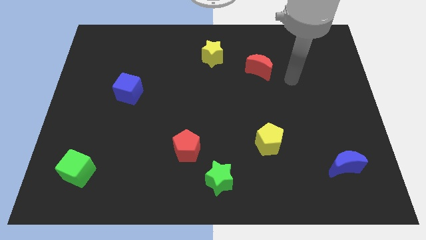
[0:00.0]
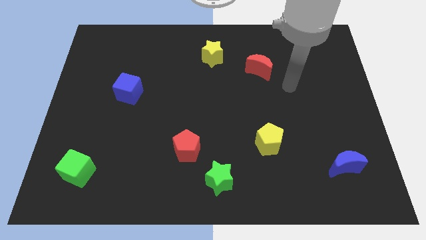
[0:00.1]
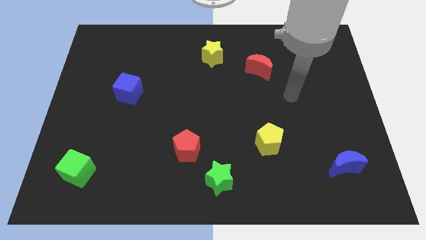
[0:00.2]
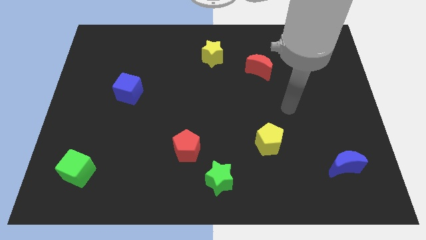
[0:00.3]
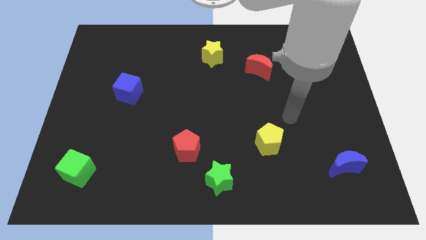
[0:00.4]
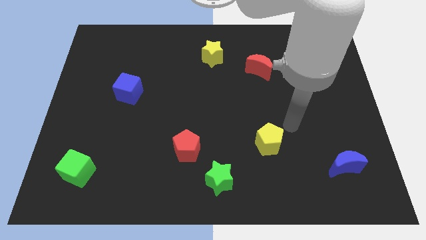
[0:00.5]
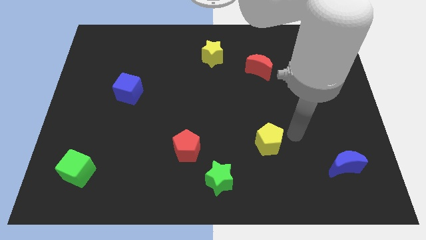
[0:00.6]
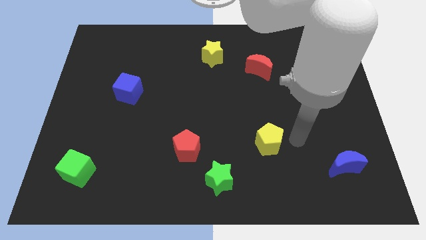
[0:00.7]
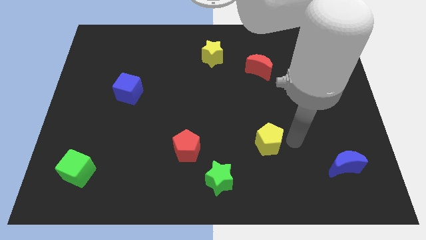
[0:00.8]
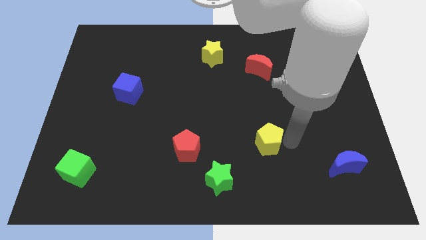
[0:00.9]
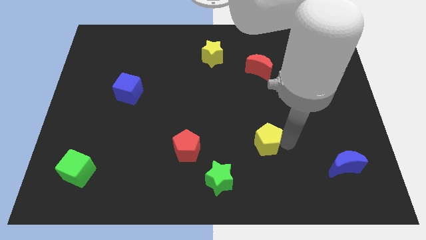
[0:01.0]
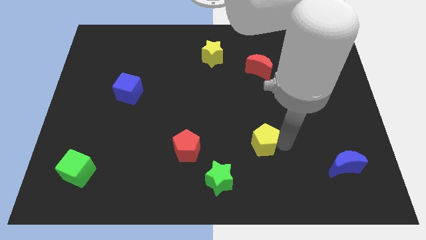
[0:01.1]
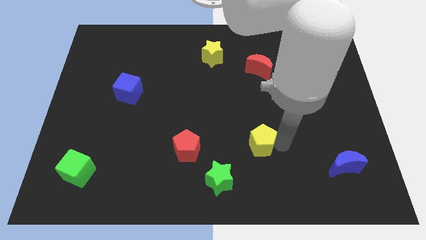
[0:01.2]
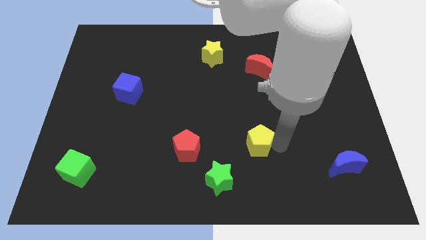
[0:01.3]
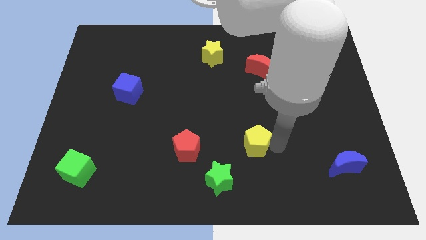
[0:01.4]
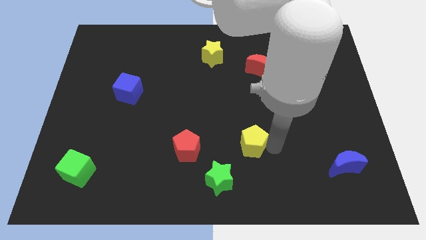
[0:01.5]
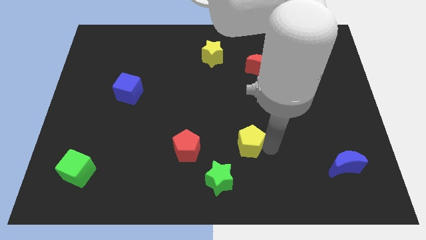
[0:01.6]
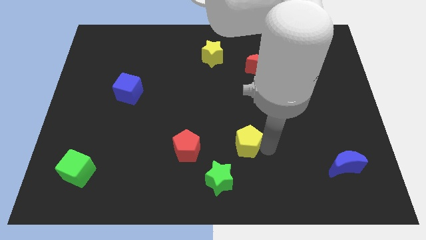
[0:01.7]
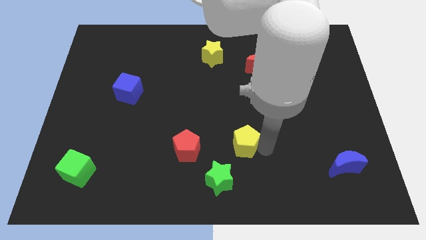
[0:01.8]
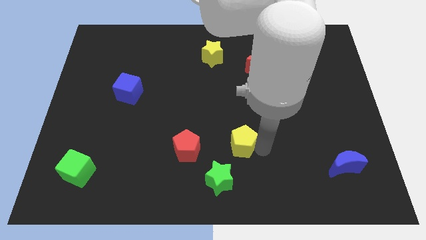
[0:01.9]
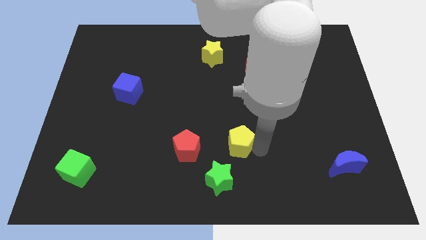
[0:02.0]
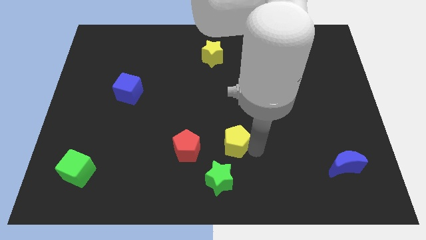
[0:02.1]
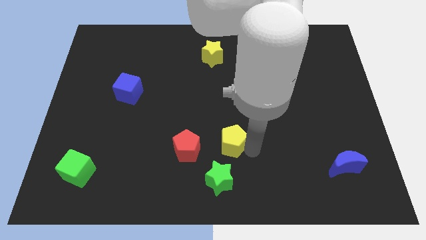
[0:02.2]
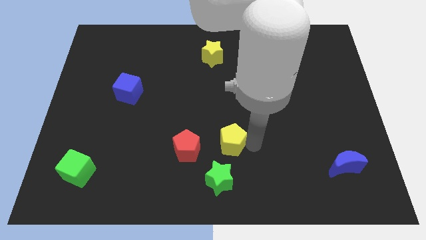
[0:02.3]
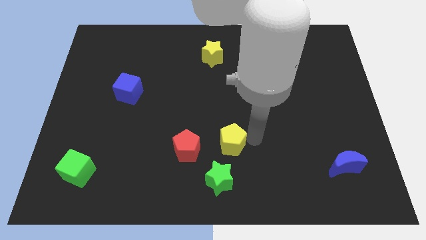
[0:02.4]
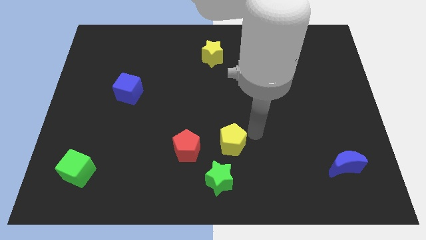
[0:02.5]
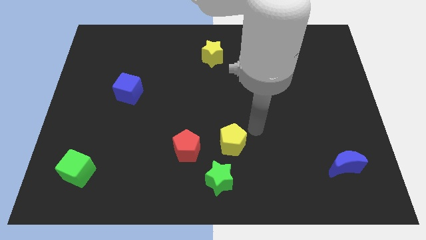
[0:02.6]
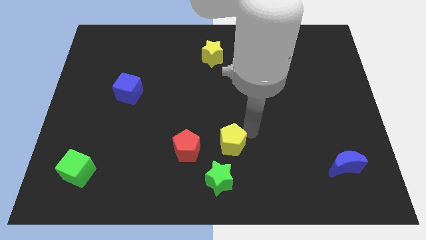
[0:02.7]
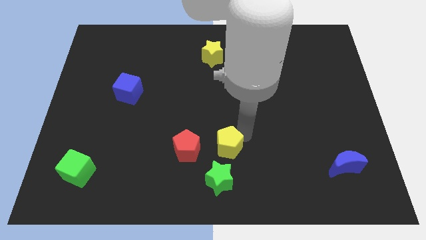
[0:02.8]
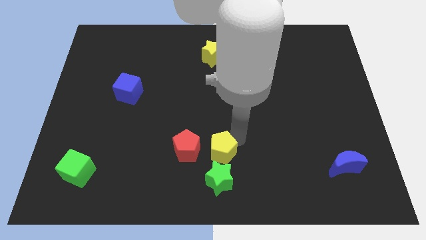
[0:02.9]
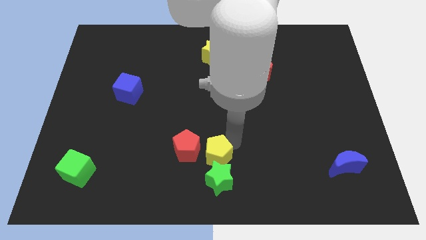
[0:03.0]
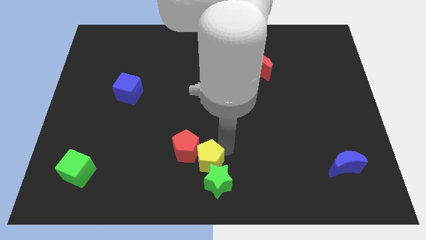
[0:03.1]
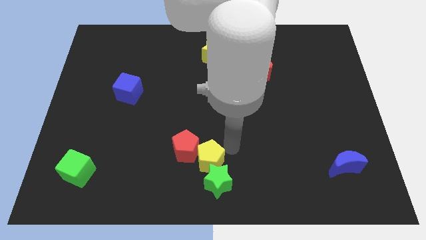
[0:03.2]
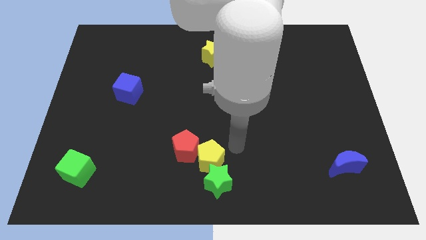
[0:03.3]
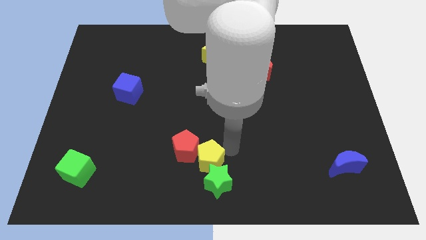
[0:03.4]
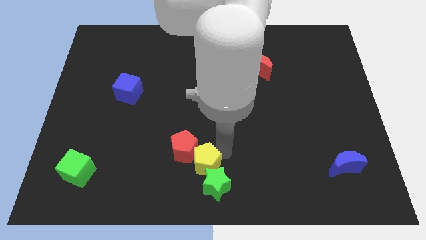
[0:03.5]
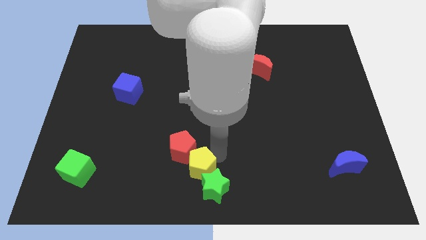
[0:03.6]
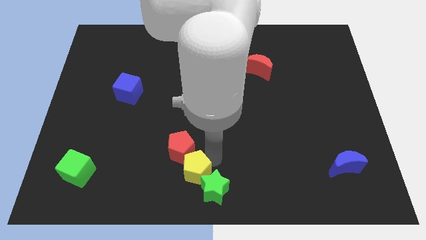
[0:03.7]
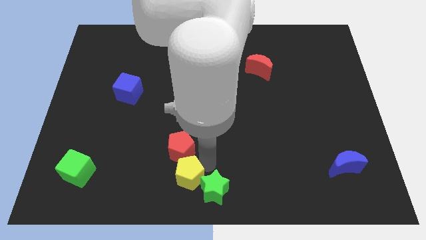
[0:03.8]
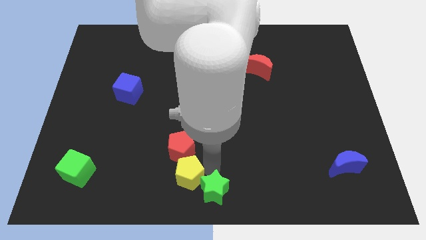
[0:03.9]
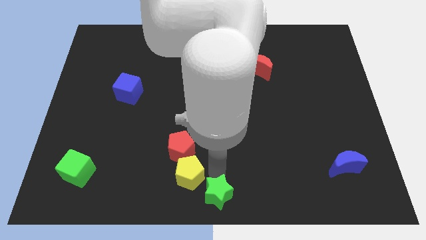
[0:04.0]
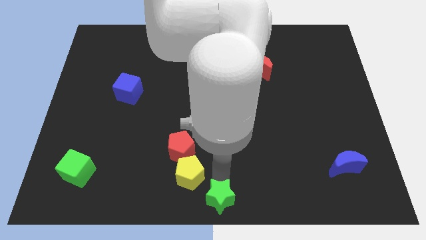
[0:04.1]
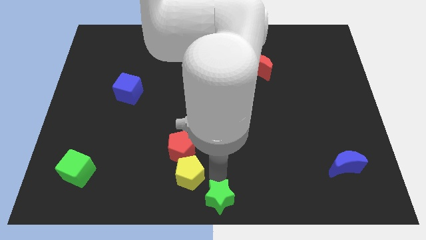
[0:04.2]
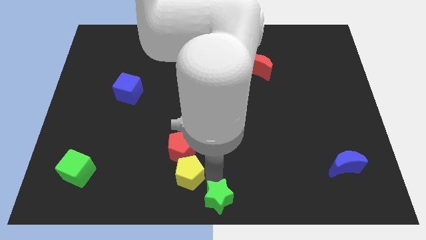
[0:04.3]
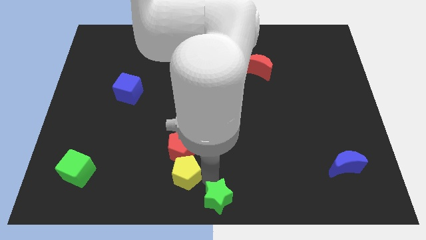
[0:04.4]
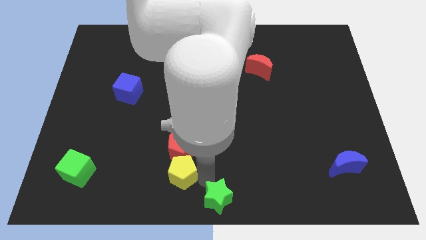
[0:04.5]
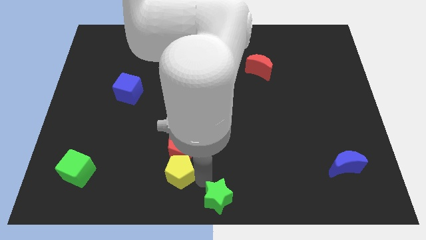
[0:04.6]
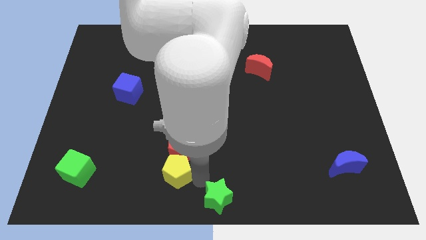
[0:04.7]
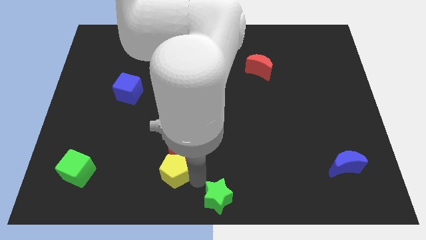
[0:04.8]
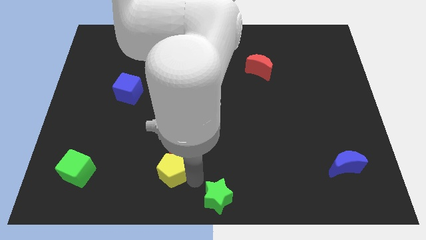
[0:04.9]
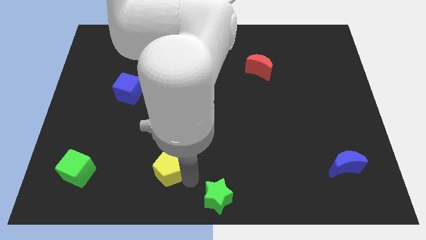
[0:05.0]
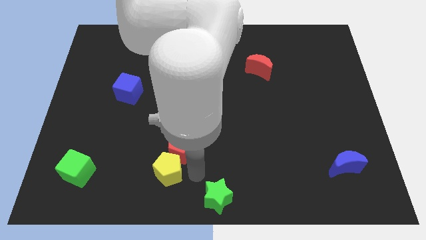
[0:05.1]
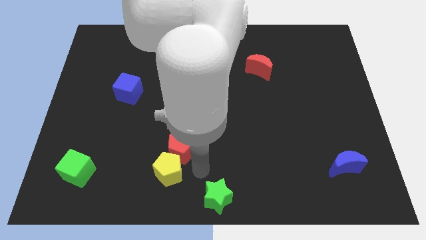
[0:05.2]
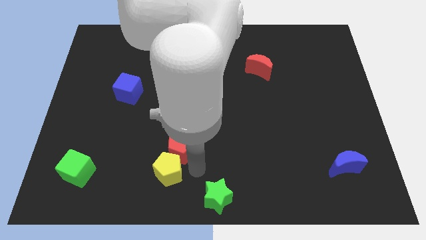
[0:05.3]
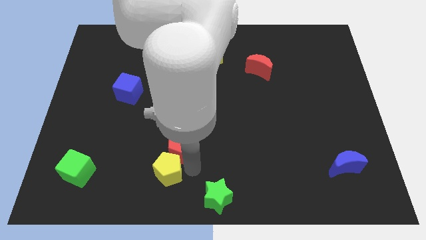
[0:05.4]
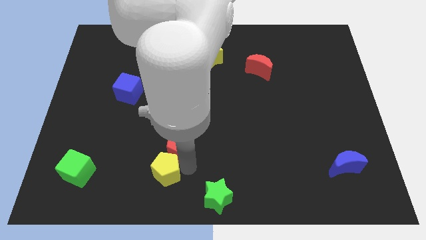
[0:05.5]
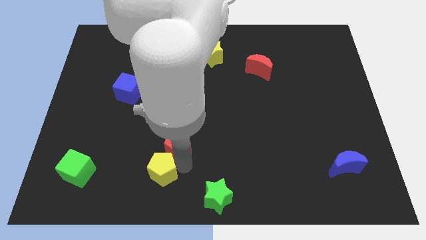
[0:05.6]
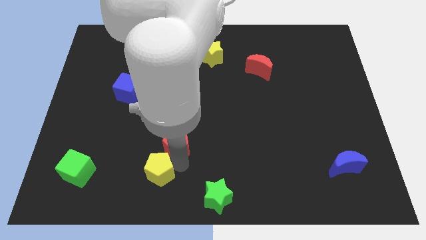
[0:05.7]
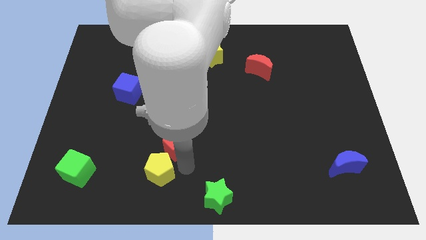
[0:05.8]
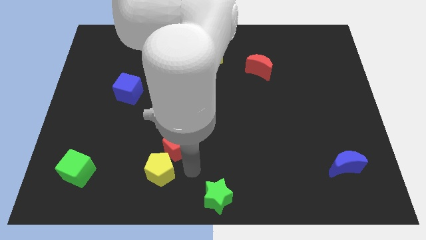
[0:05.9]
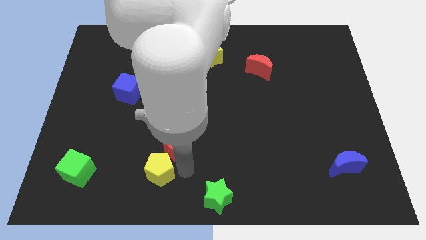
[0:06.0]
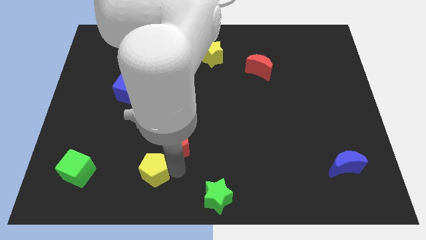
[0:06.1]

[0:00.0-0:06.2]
move the yellow pentagon to the right side of the green cube

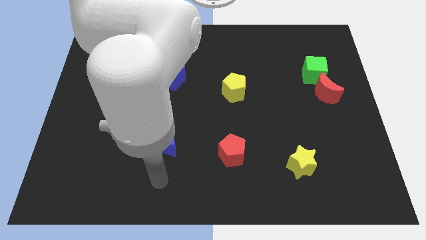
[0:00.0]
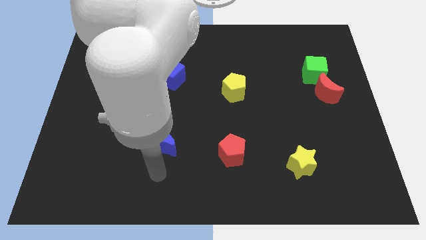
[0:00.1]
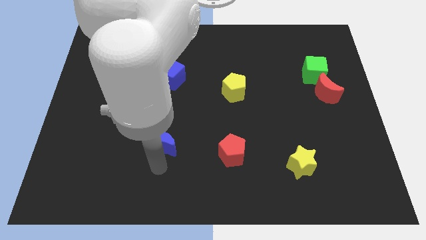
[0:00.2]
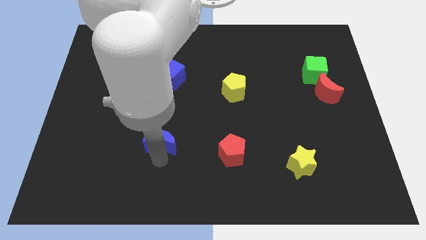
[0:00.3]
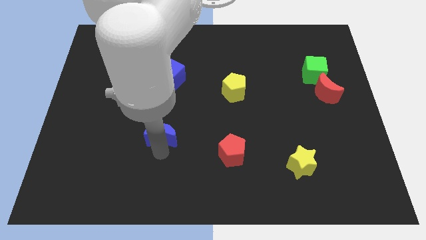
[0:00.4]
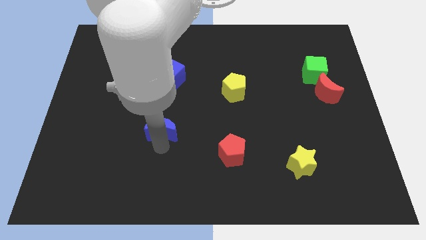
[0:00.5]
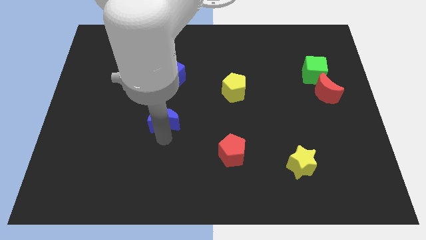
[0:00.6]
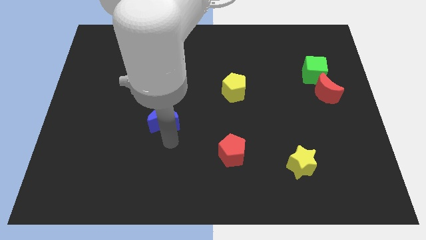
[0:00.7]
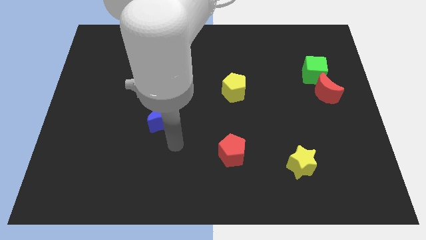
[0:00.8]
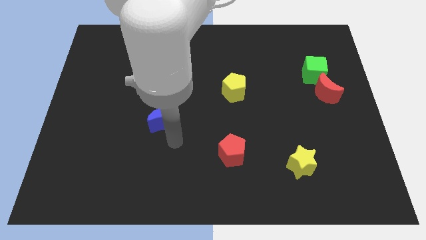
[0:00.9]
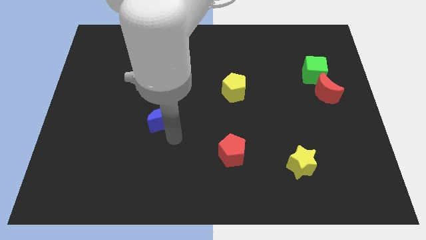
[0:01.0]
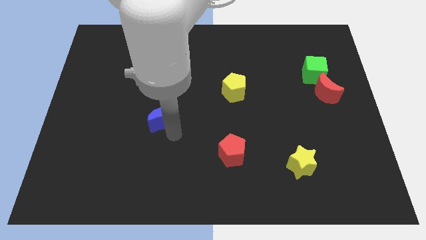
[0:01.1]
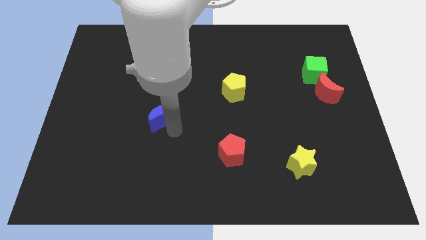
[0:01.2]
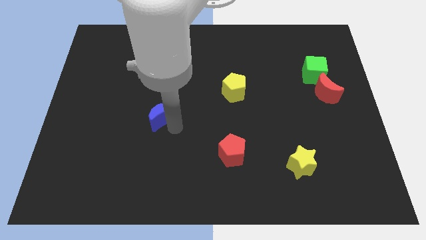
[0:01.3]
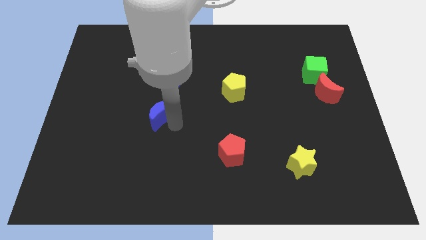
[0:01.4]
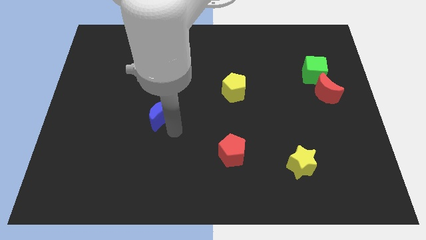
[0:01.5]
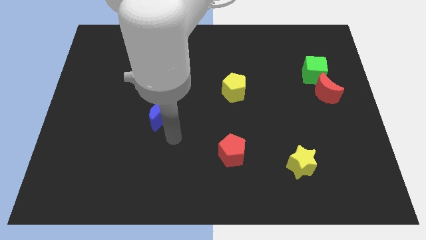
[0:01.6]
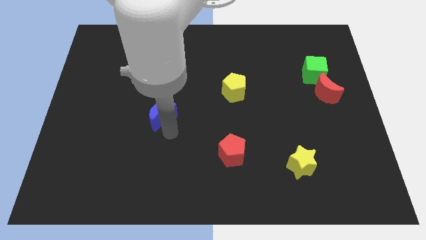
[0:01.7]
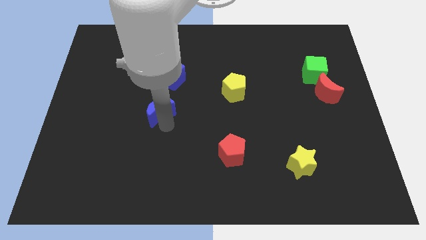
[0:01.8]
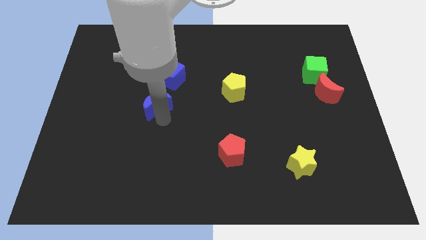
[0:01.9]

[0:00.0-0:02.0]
slide the blue moon to the bottom left of the blue cube
